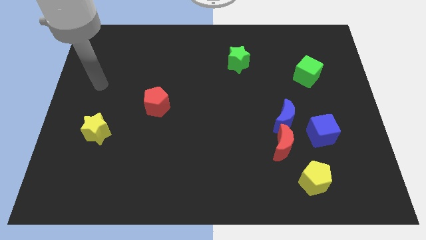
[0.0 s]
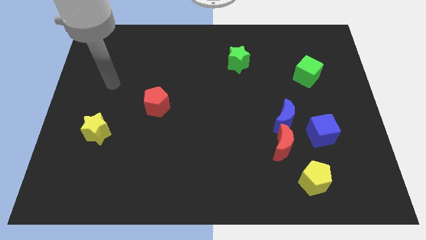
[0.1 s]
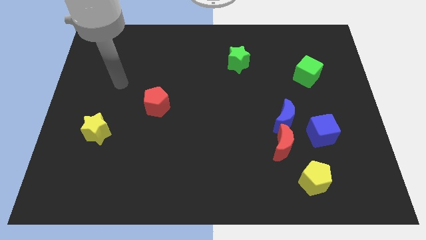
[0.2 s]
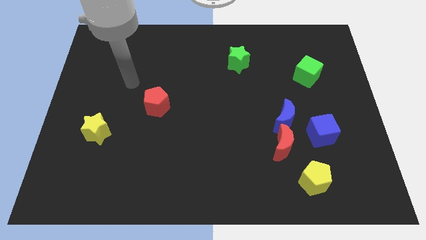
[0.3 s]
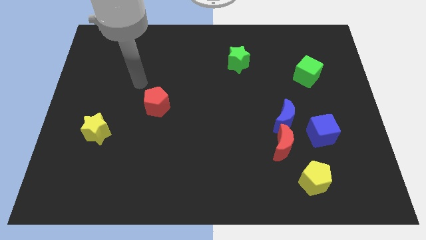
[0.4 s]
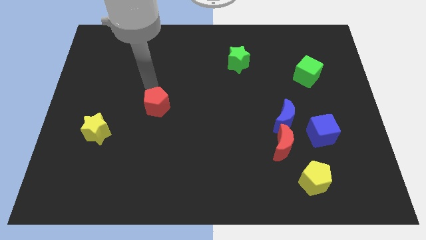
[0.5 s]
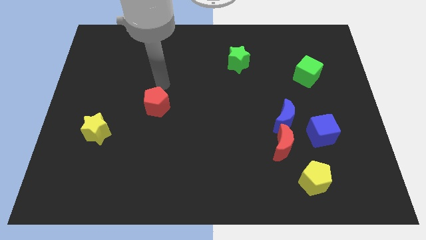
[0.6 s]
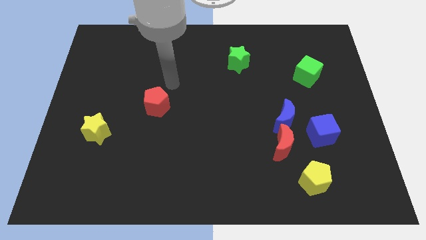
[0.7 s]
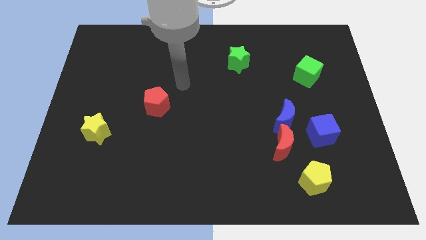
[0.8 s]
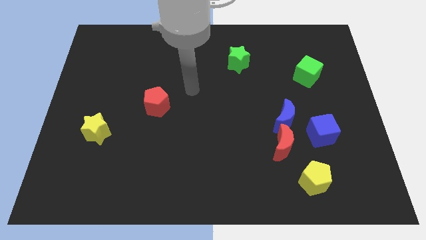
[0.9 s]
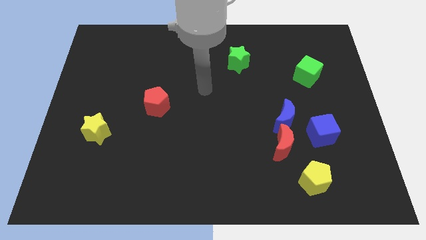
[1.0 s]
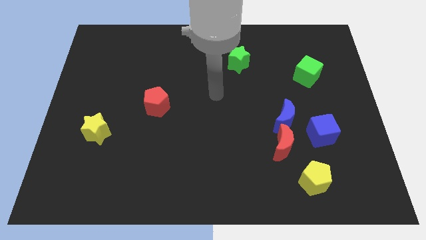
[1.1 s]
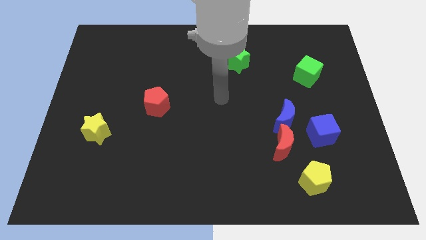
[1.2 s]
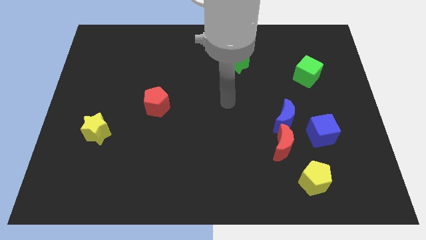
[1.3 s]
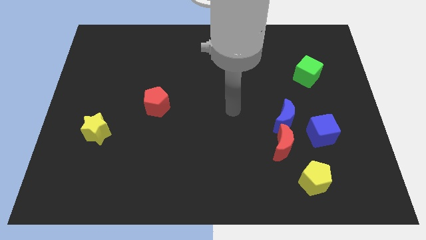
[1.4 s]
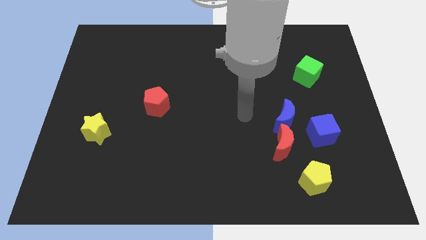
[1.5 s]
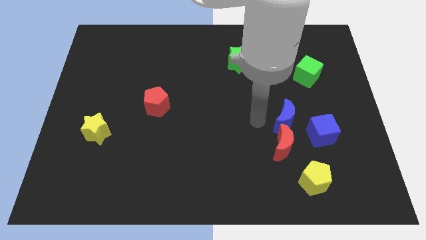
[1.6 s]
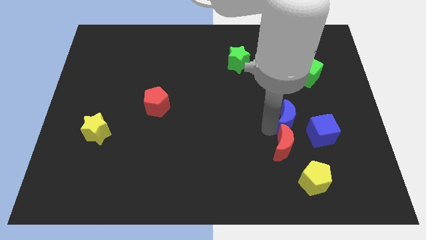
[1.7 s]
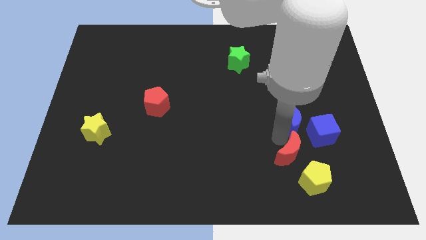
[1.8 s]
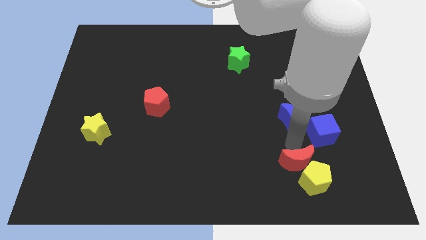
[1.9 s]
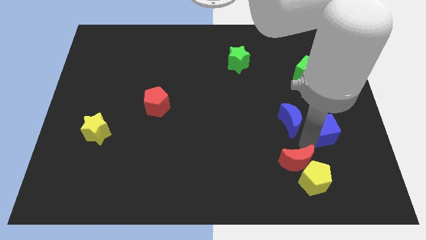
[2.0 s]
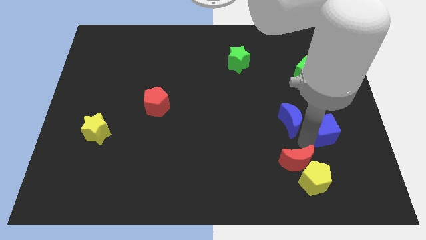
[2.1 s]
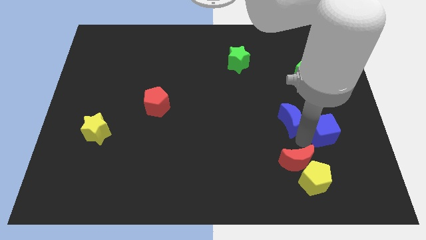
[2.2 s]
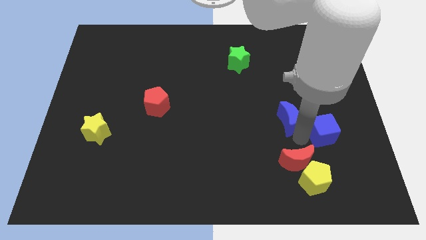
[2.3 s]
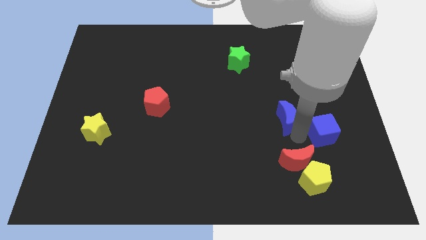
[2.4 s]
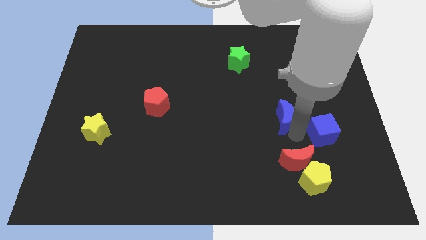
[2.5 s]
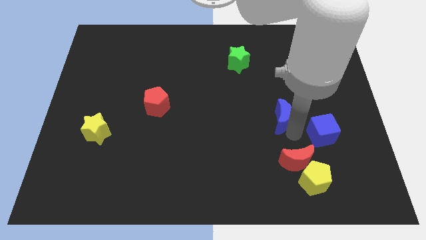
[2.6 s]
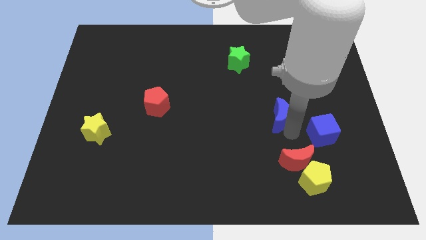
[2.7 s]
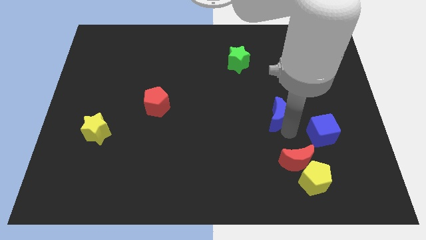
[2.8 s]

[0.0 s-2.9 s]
pull the blue moon apart from the red moon and blue cube

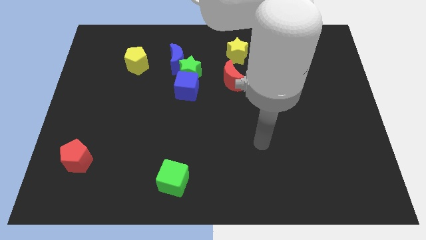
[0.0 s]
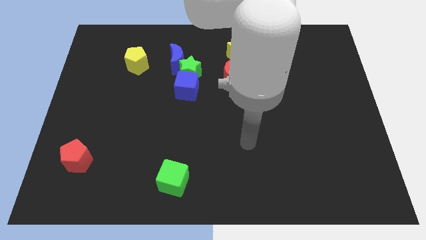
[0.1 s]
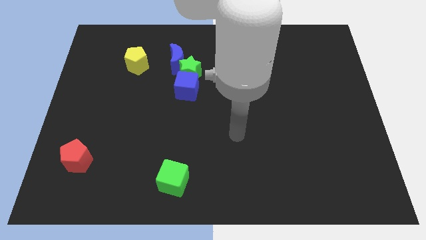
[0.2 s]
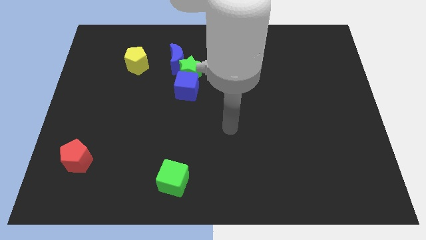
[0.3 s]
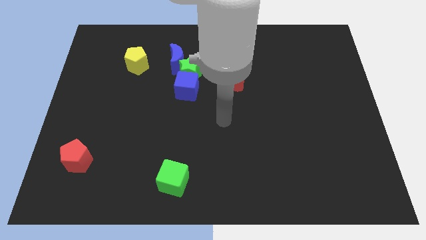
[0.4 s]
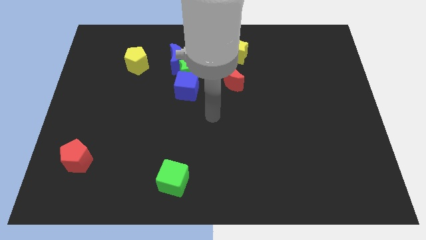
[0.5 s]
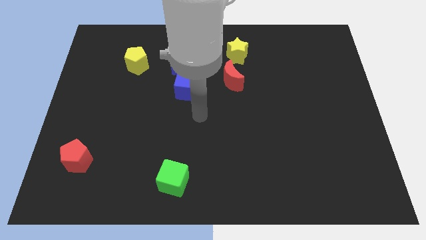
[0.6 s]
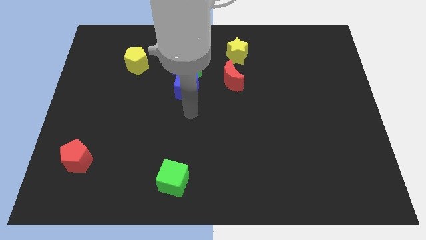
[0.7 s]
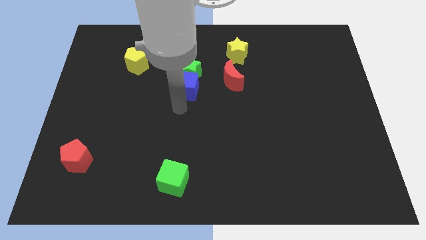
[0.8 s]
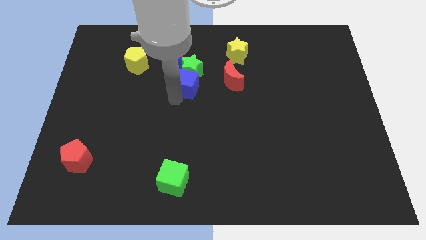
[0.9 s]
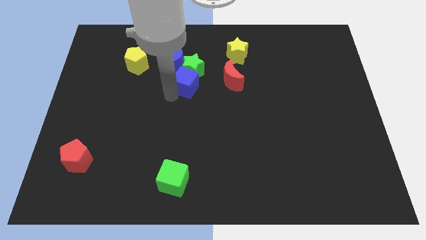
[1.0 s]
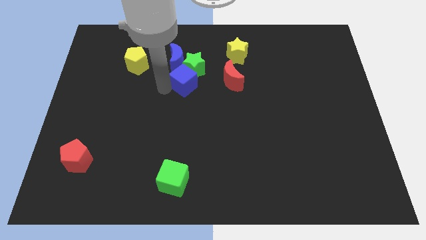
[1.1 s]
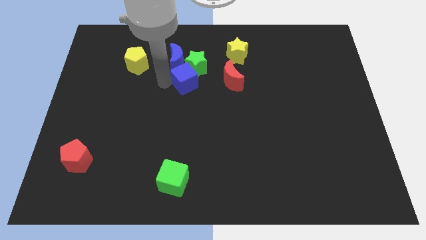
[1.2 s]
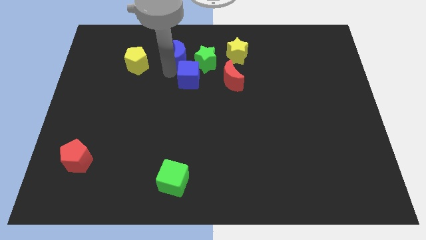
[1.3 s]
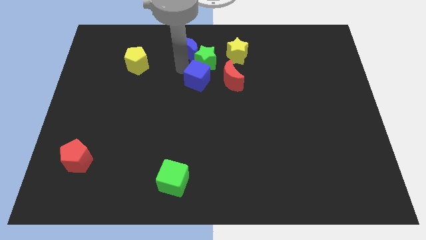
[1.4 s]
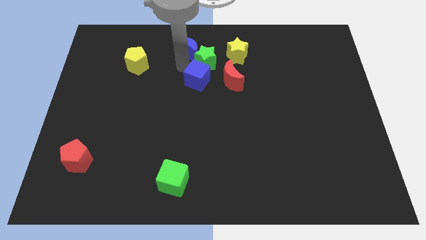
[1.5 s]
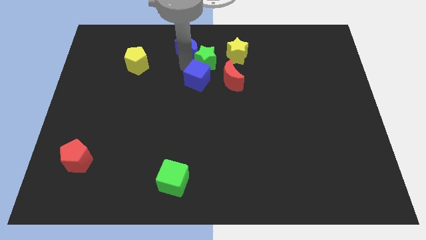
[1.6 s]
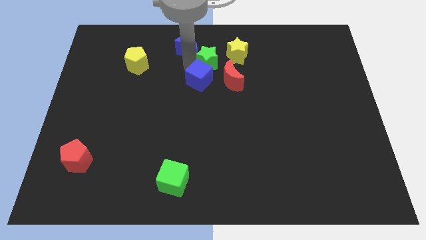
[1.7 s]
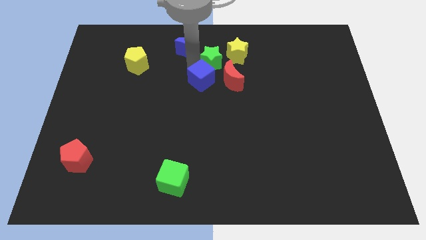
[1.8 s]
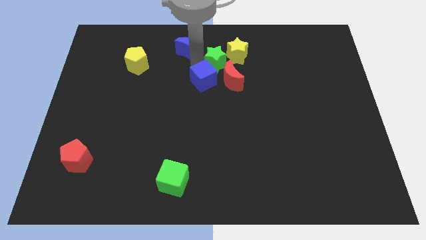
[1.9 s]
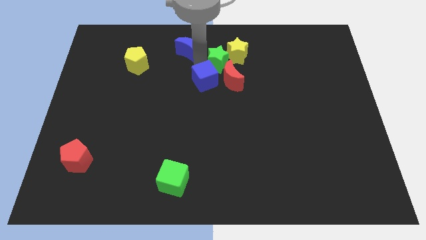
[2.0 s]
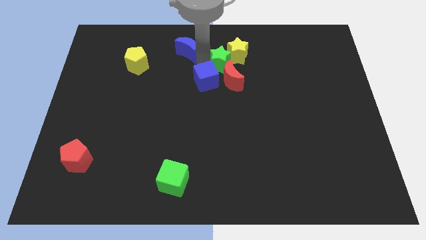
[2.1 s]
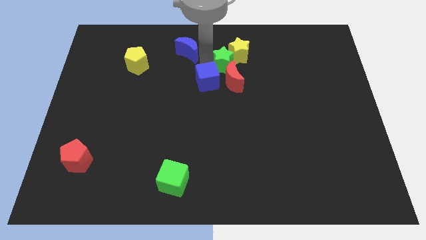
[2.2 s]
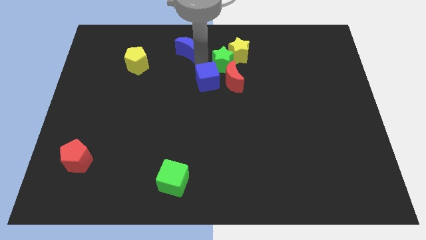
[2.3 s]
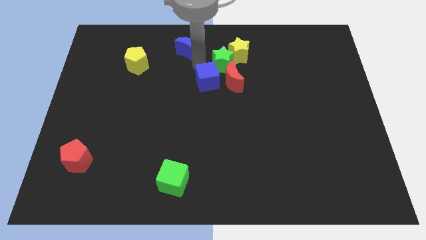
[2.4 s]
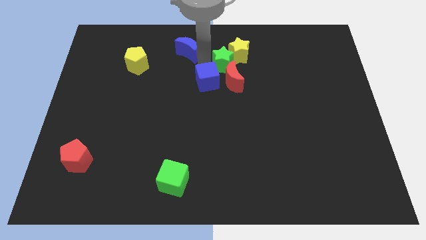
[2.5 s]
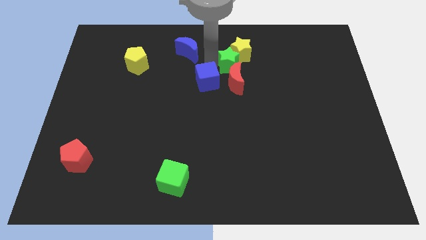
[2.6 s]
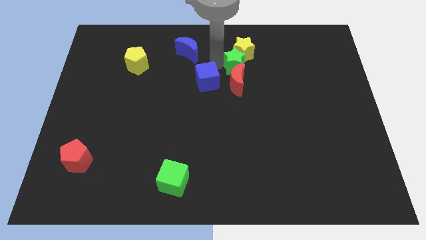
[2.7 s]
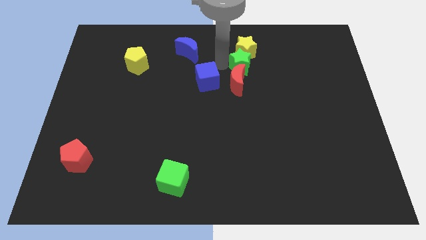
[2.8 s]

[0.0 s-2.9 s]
separate the green star from the blue cube and blue moon

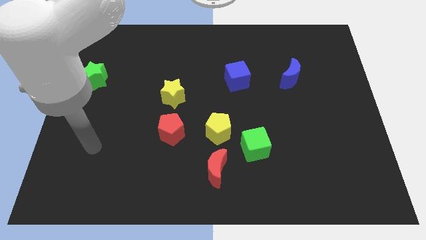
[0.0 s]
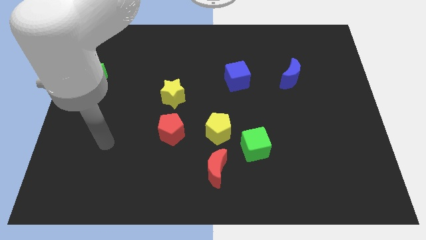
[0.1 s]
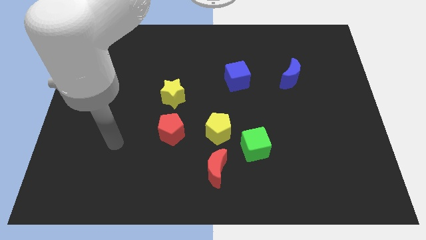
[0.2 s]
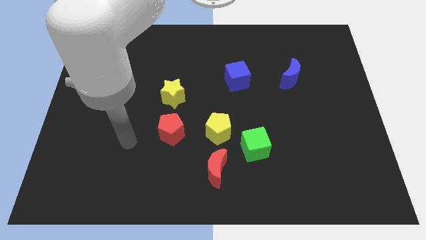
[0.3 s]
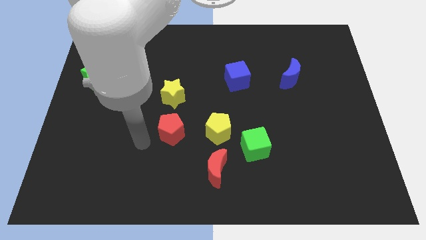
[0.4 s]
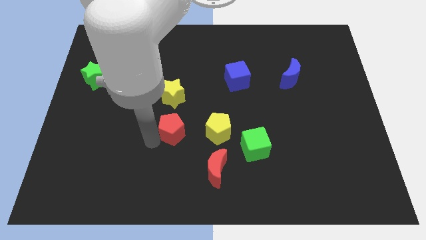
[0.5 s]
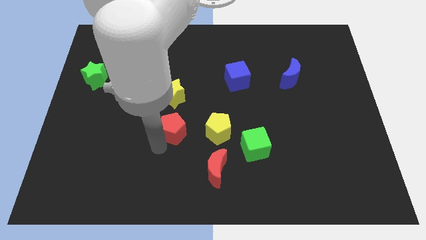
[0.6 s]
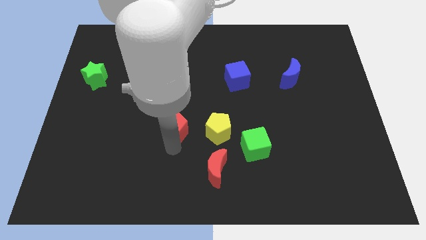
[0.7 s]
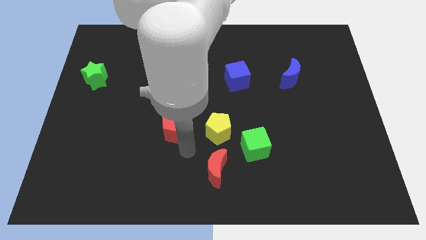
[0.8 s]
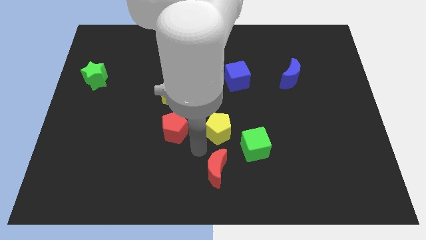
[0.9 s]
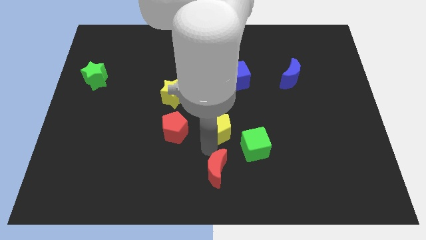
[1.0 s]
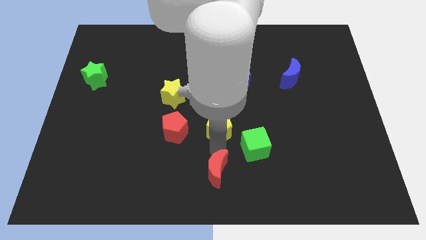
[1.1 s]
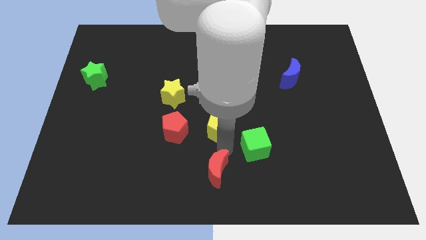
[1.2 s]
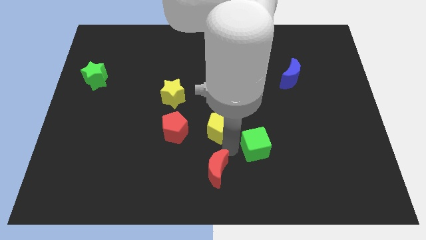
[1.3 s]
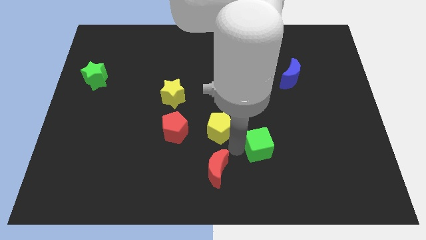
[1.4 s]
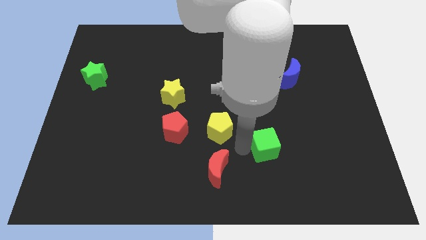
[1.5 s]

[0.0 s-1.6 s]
move the green cube away from the yellow pentagon and red moon

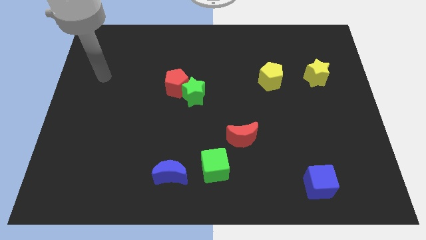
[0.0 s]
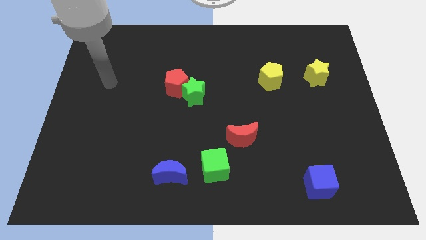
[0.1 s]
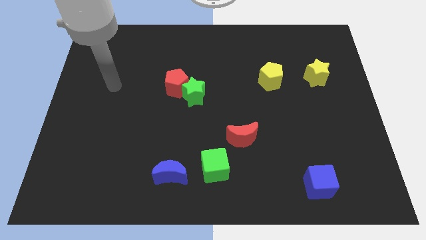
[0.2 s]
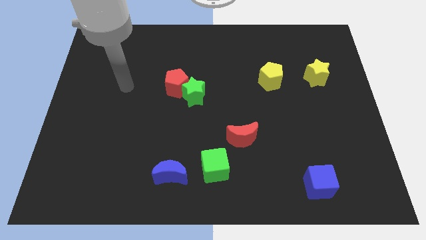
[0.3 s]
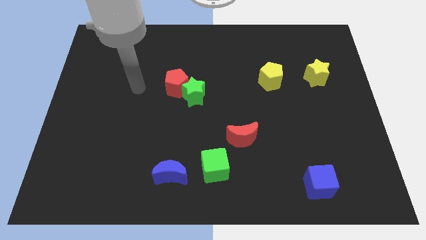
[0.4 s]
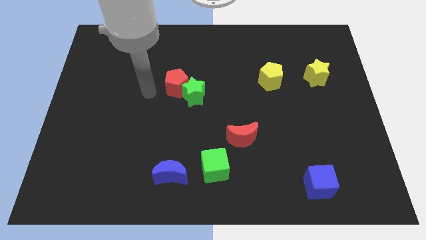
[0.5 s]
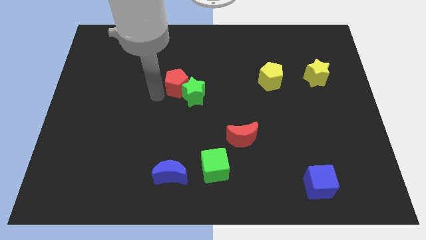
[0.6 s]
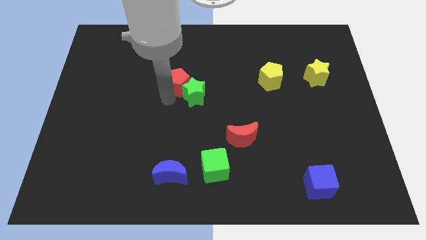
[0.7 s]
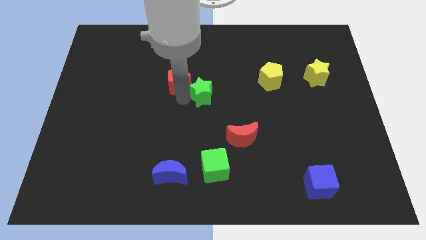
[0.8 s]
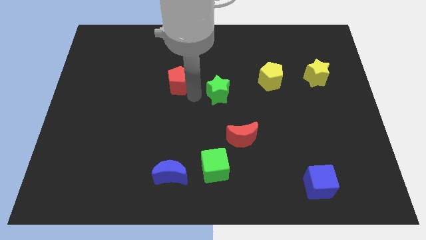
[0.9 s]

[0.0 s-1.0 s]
move the red pentagon away from the green star

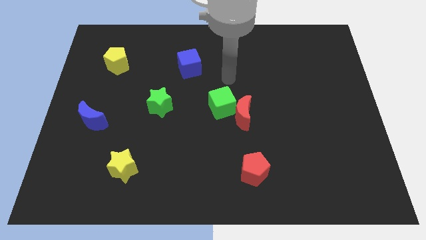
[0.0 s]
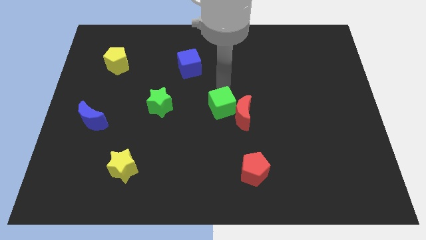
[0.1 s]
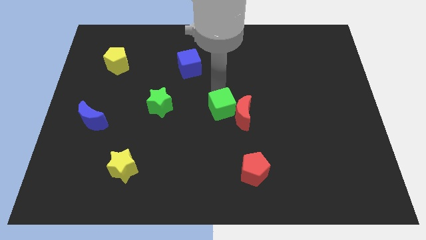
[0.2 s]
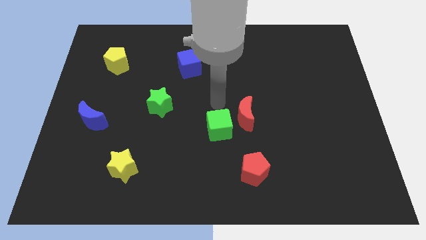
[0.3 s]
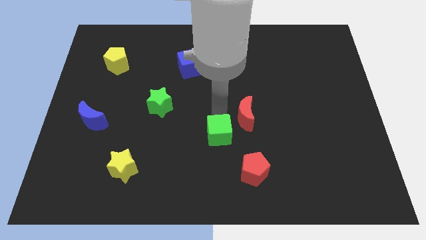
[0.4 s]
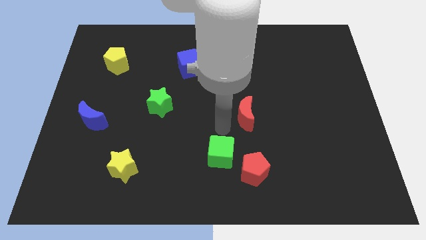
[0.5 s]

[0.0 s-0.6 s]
move the red moon away from the green cube

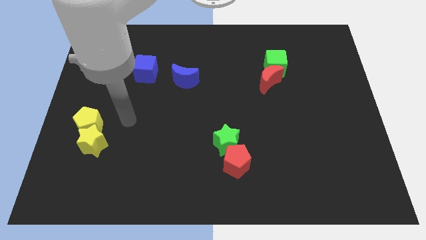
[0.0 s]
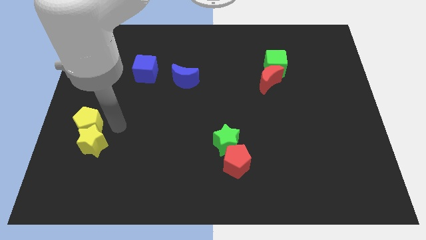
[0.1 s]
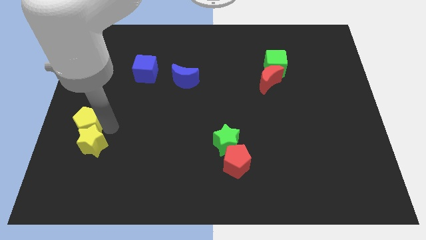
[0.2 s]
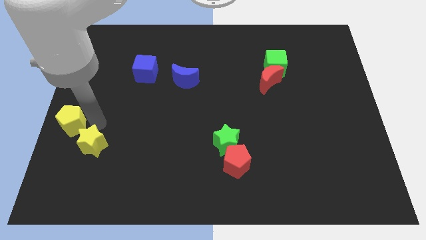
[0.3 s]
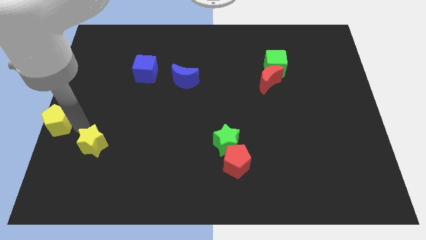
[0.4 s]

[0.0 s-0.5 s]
separate the yellow star from the yellow pentagon

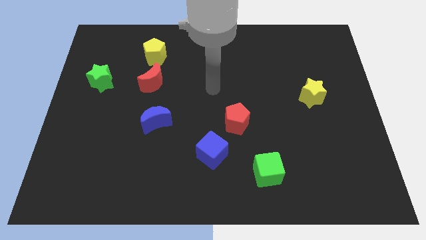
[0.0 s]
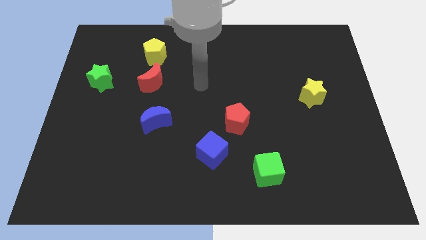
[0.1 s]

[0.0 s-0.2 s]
move the red moon away from the yellow pentagon
